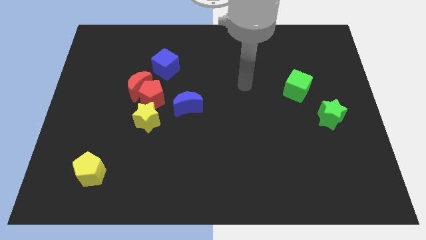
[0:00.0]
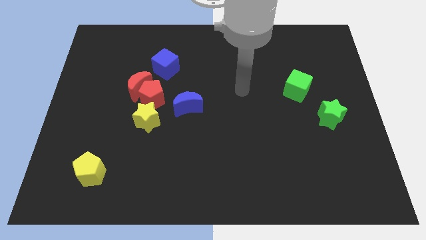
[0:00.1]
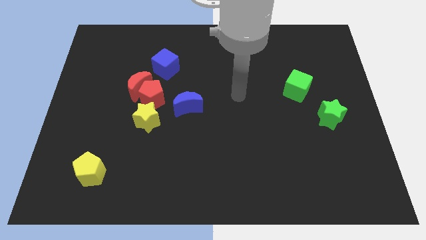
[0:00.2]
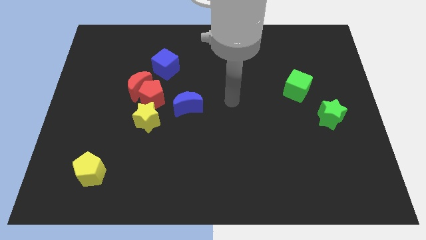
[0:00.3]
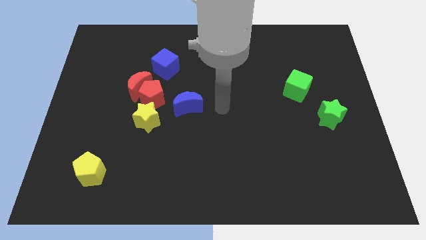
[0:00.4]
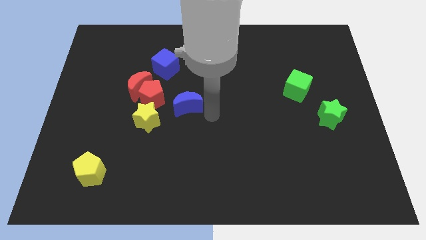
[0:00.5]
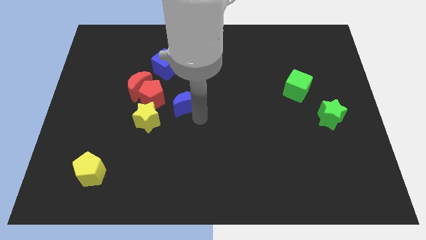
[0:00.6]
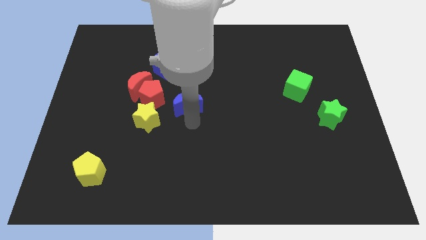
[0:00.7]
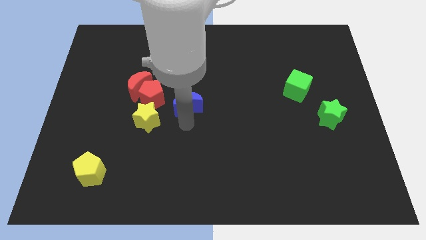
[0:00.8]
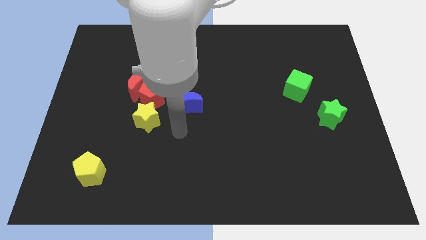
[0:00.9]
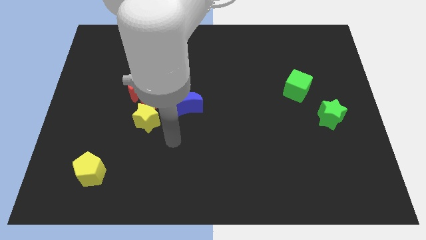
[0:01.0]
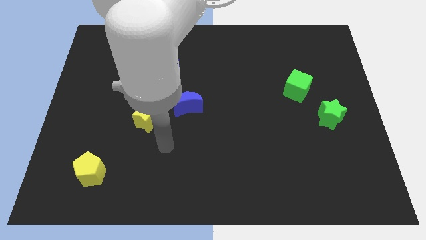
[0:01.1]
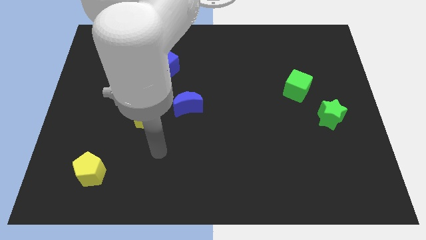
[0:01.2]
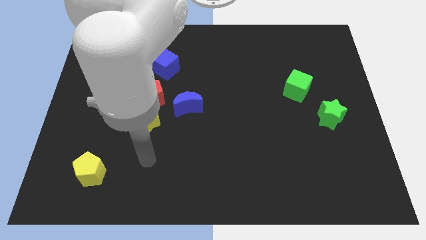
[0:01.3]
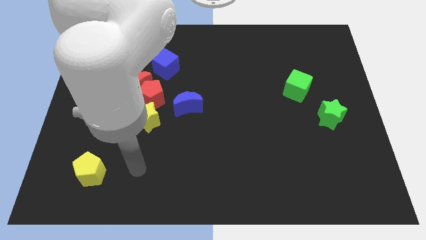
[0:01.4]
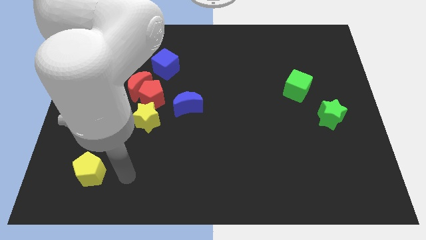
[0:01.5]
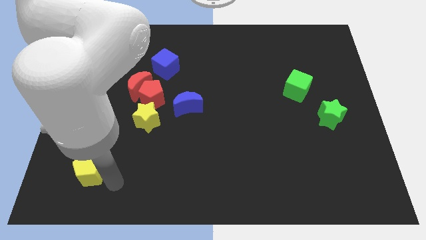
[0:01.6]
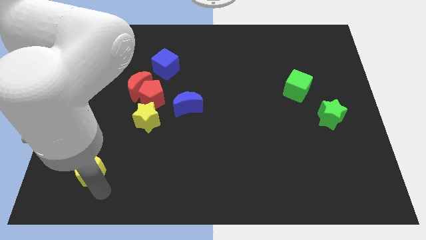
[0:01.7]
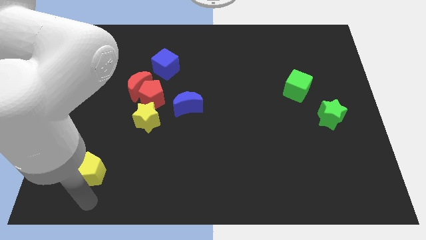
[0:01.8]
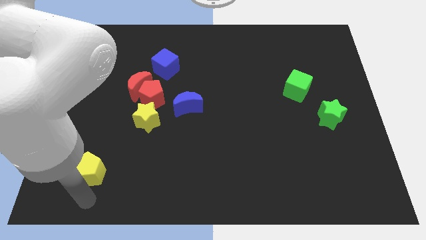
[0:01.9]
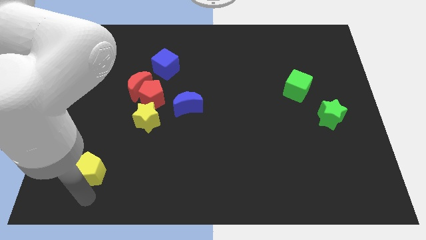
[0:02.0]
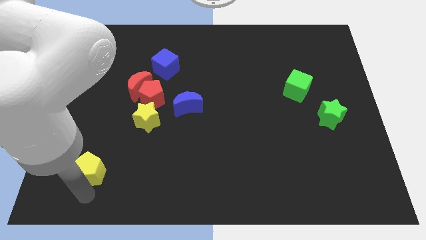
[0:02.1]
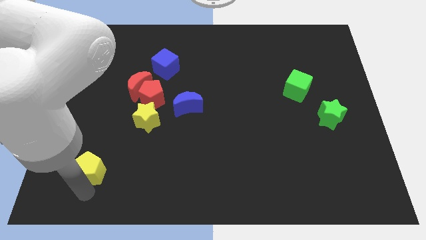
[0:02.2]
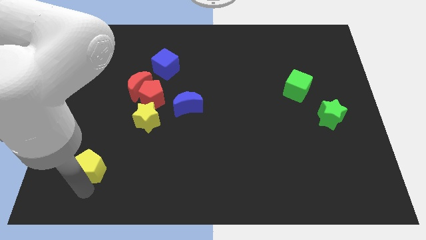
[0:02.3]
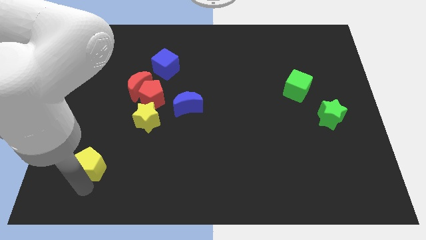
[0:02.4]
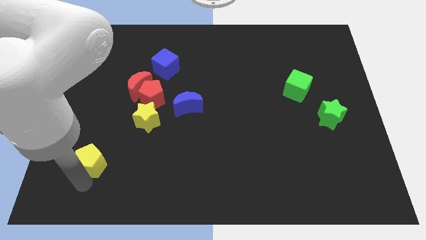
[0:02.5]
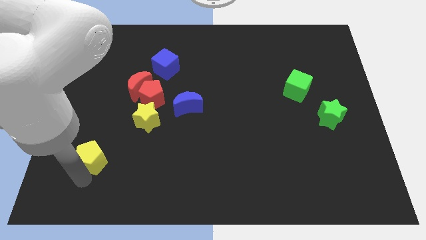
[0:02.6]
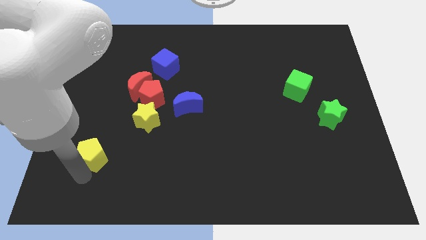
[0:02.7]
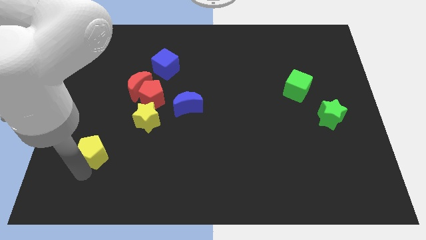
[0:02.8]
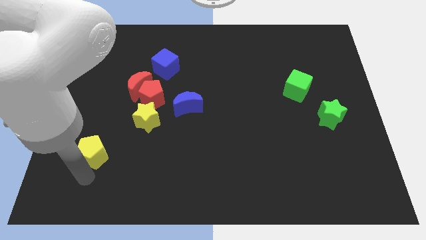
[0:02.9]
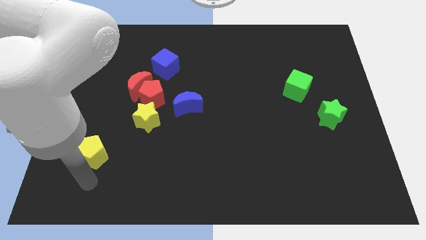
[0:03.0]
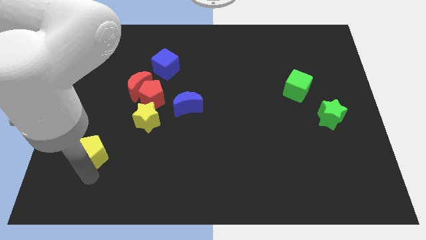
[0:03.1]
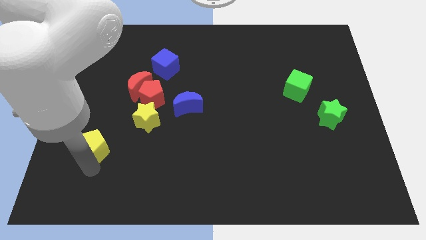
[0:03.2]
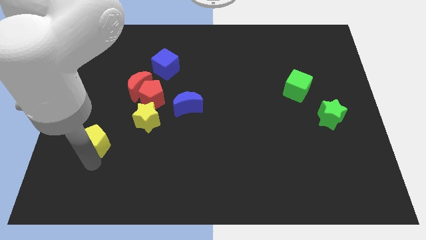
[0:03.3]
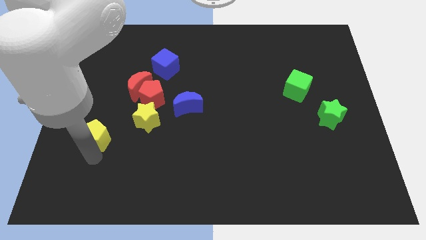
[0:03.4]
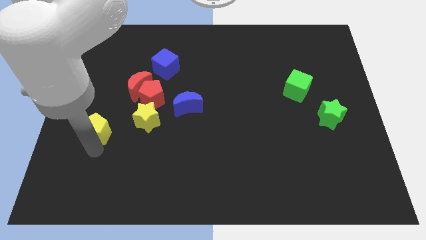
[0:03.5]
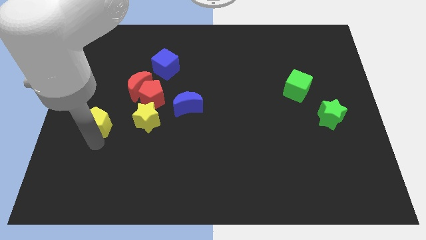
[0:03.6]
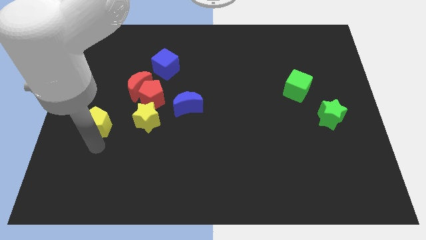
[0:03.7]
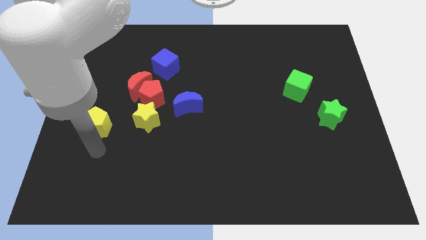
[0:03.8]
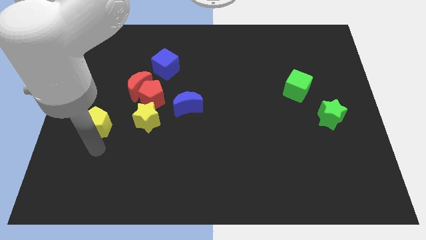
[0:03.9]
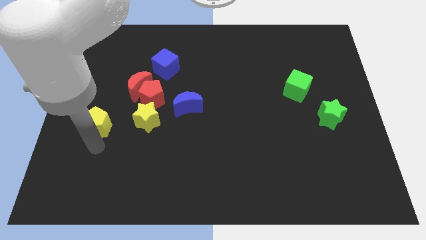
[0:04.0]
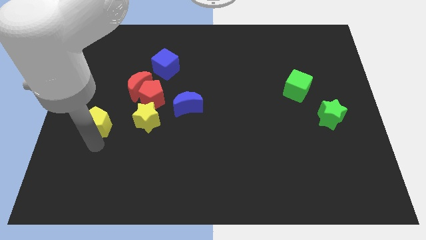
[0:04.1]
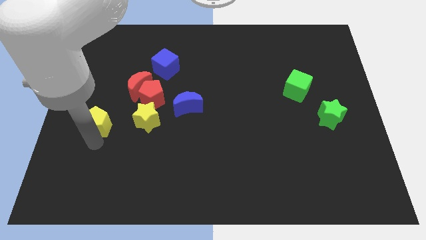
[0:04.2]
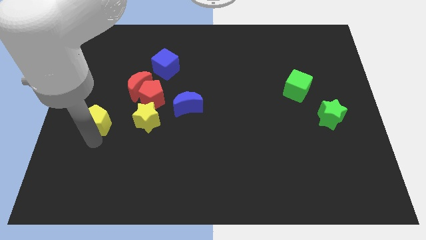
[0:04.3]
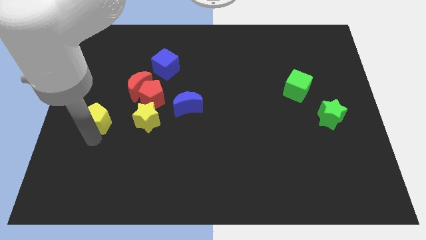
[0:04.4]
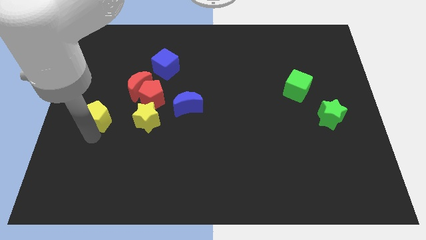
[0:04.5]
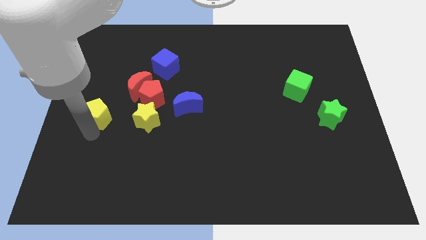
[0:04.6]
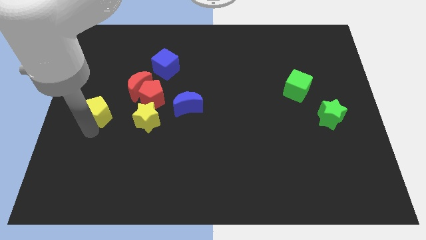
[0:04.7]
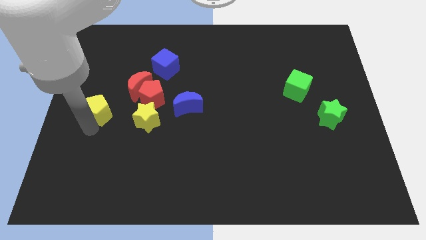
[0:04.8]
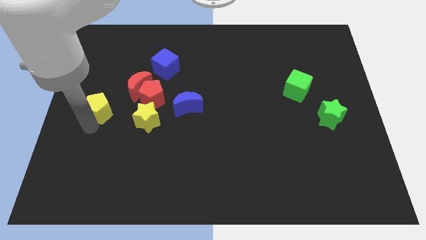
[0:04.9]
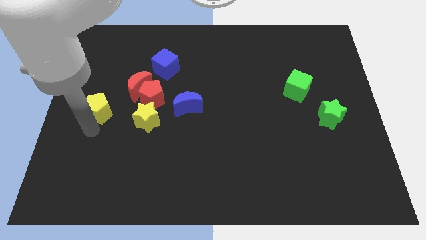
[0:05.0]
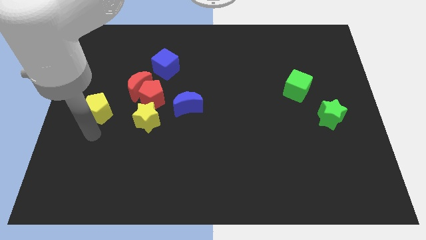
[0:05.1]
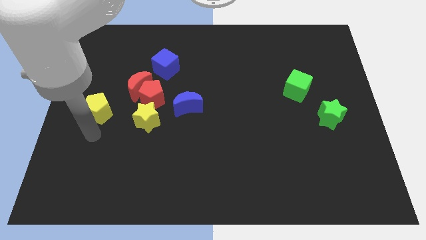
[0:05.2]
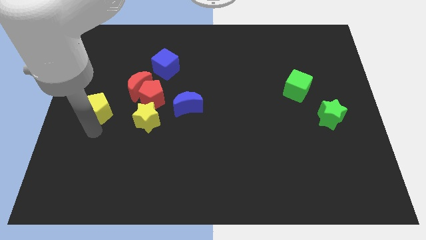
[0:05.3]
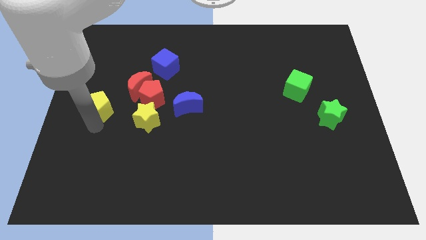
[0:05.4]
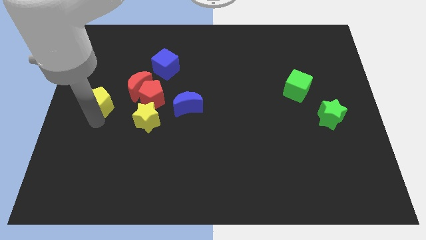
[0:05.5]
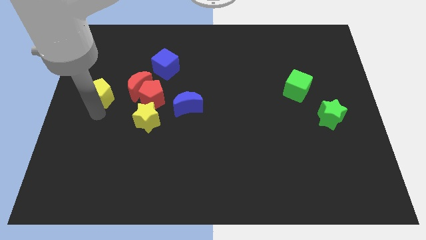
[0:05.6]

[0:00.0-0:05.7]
move the yellow pentagon up

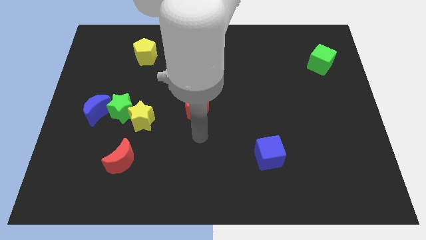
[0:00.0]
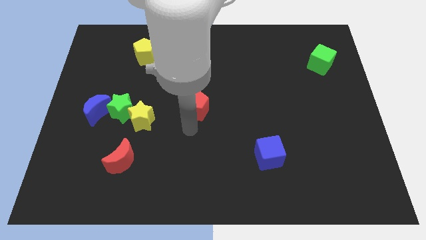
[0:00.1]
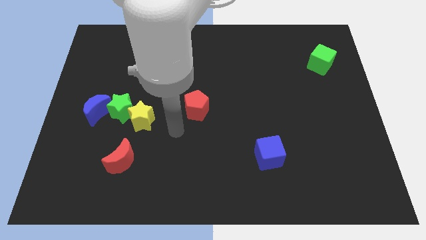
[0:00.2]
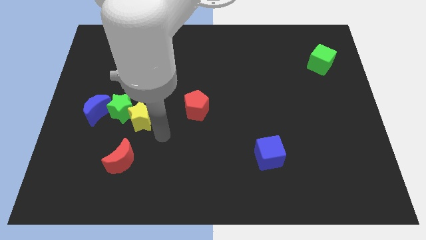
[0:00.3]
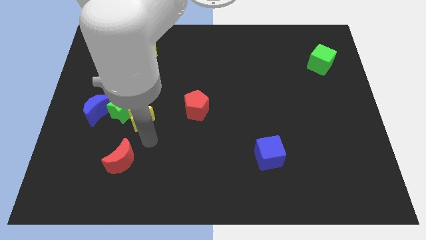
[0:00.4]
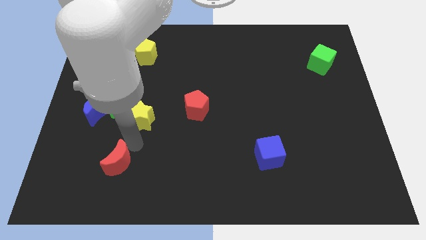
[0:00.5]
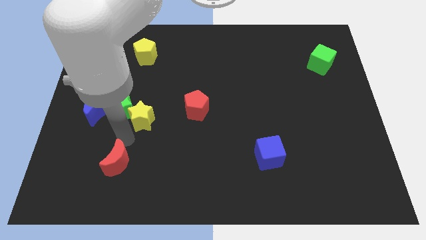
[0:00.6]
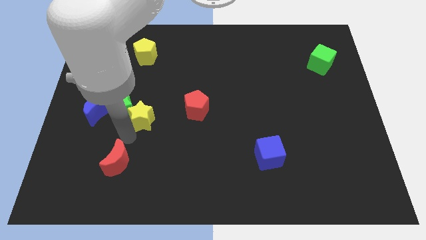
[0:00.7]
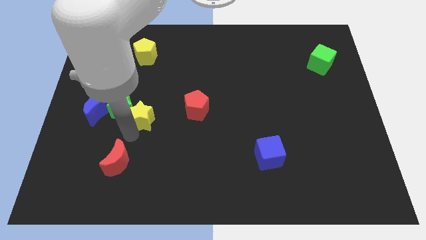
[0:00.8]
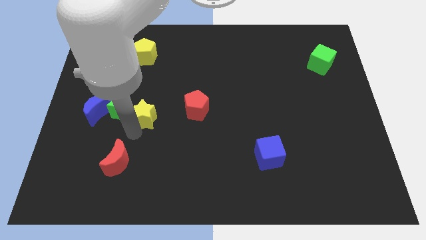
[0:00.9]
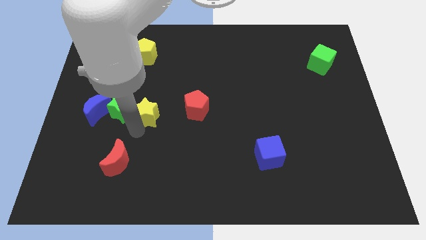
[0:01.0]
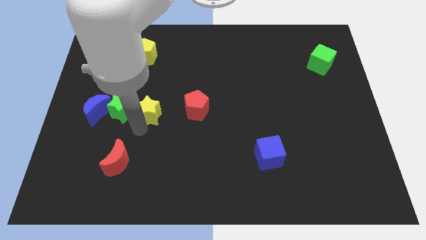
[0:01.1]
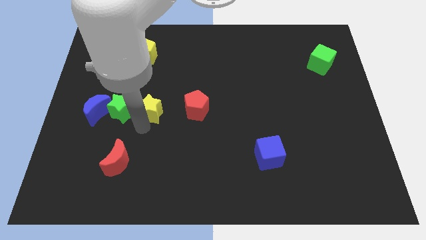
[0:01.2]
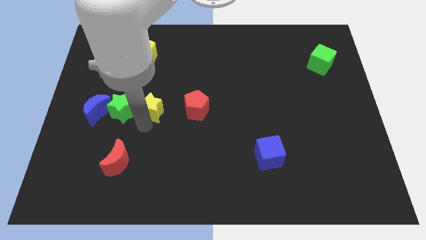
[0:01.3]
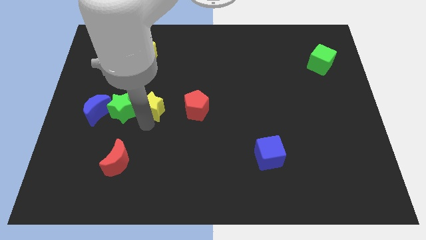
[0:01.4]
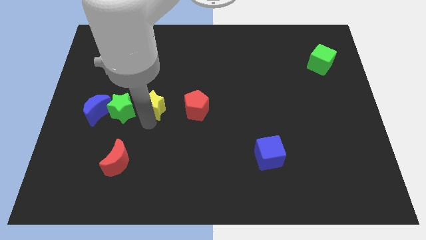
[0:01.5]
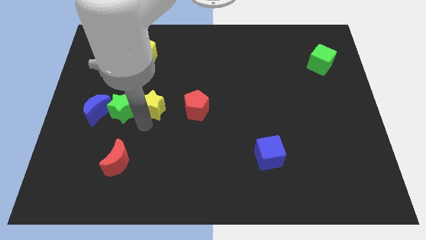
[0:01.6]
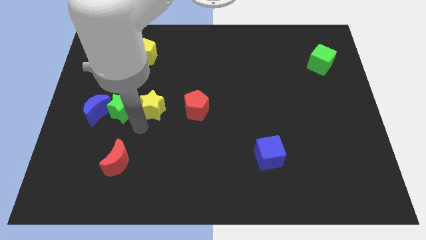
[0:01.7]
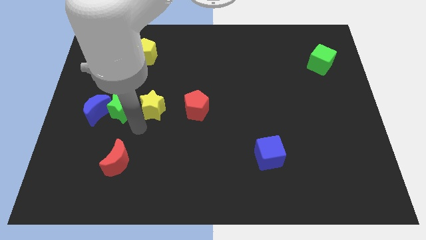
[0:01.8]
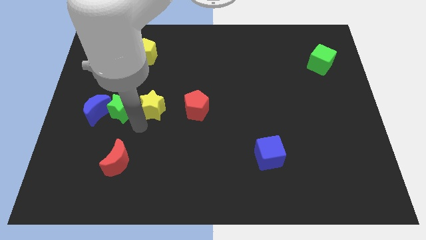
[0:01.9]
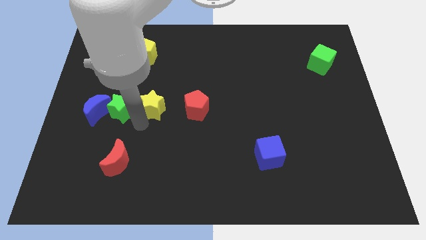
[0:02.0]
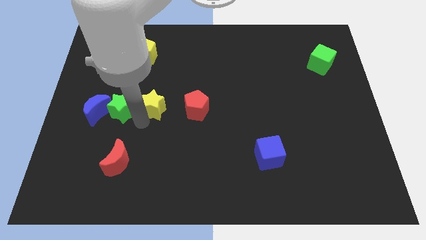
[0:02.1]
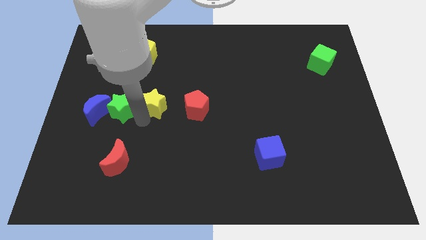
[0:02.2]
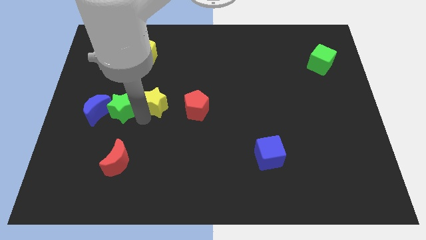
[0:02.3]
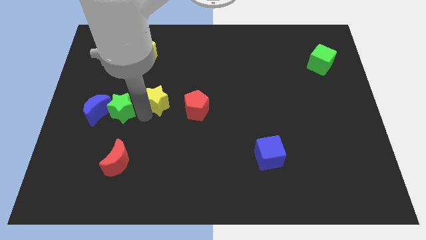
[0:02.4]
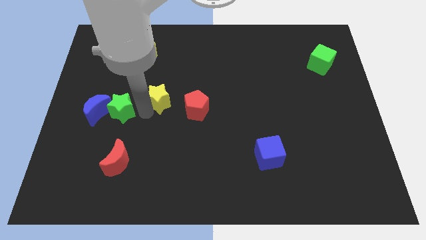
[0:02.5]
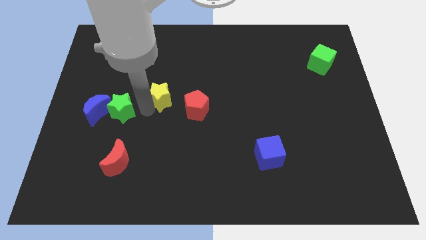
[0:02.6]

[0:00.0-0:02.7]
slightly push the yellow star up and to the right

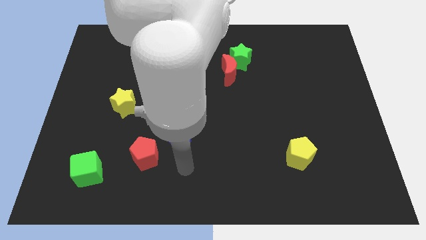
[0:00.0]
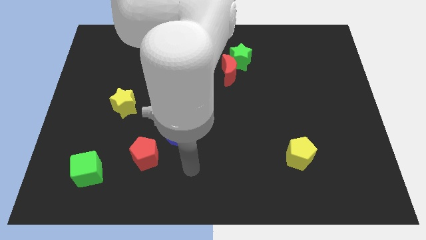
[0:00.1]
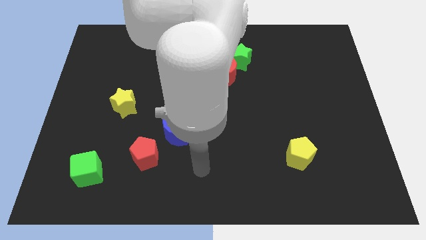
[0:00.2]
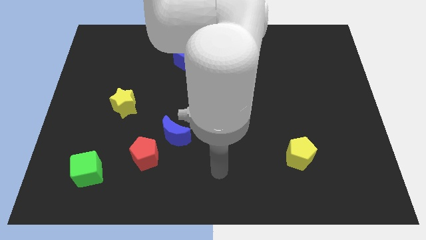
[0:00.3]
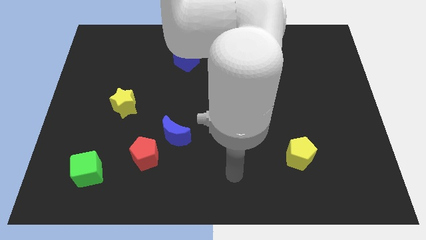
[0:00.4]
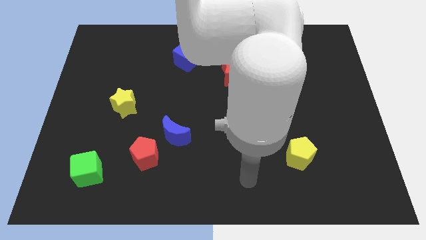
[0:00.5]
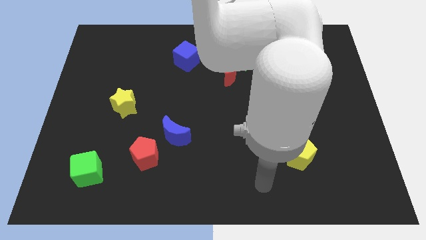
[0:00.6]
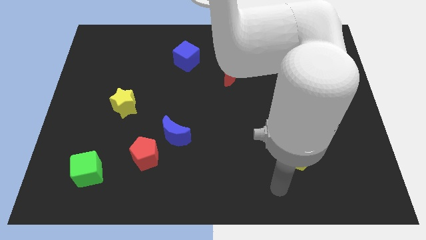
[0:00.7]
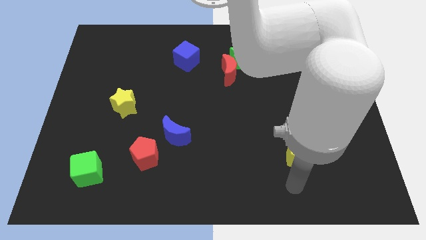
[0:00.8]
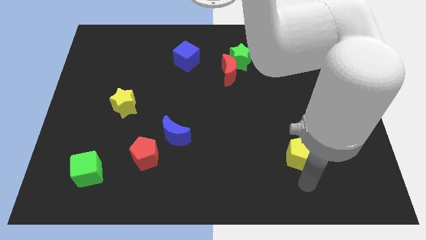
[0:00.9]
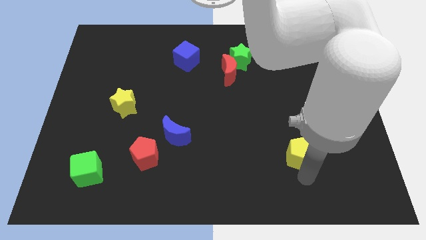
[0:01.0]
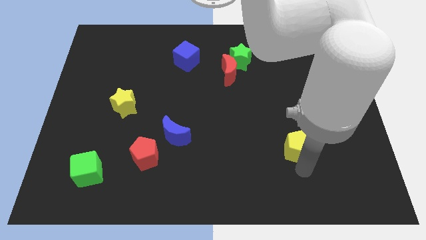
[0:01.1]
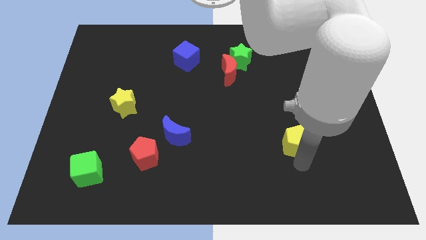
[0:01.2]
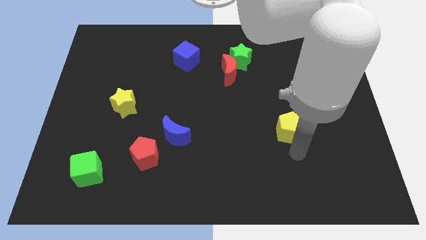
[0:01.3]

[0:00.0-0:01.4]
slightly slide the yellow pentagon up
